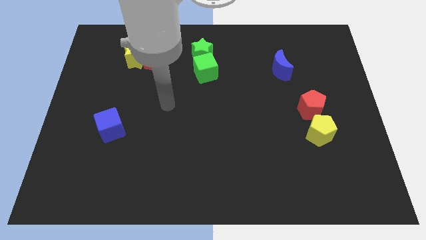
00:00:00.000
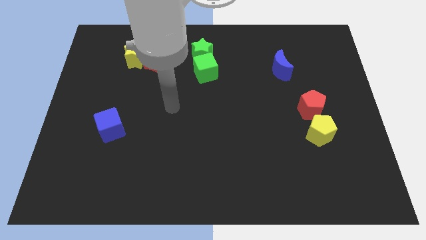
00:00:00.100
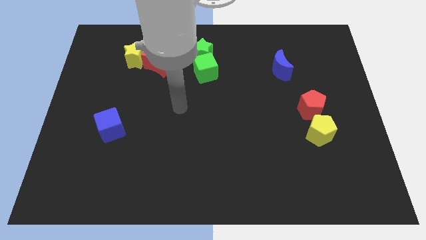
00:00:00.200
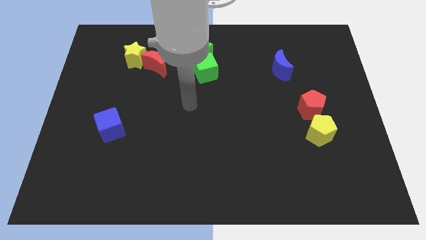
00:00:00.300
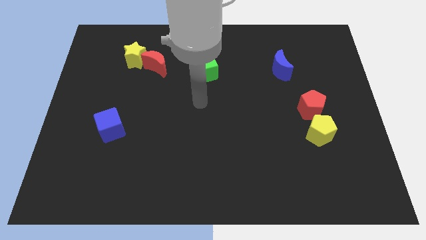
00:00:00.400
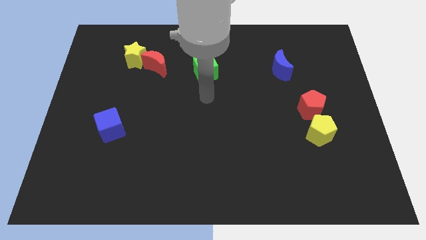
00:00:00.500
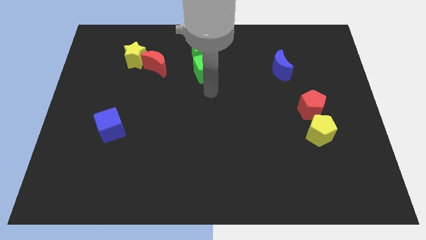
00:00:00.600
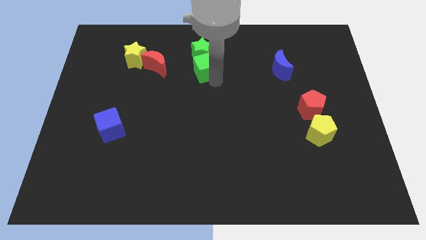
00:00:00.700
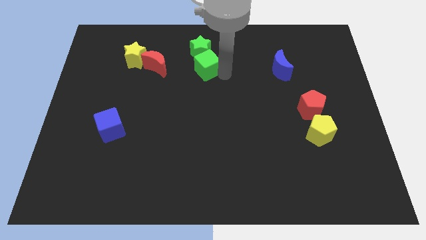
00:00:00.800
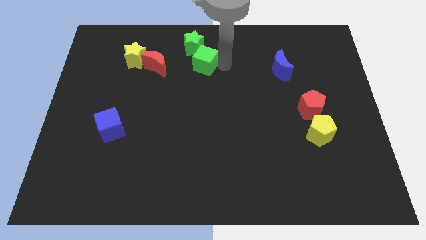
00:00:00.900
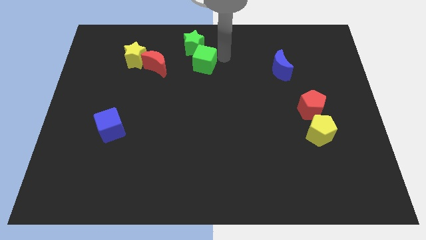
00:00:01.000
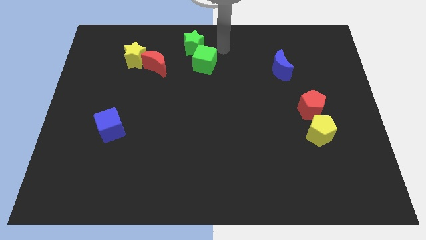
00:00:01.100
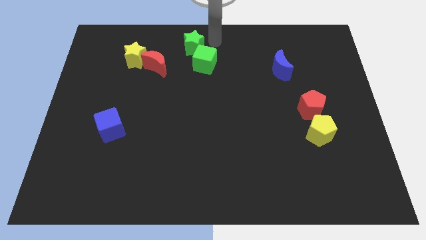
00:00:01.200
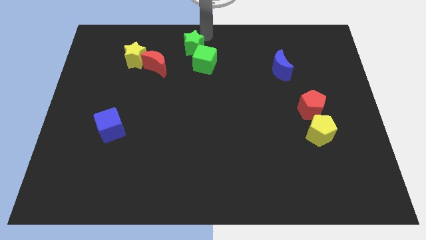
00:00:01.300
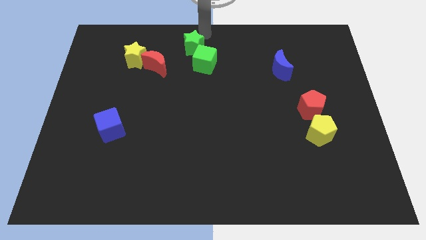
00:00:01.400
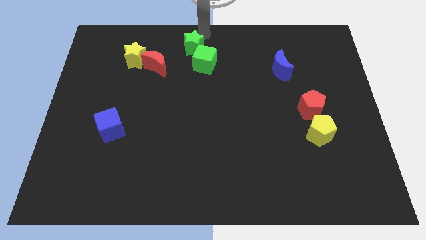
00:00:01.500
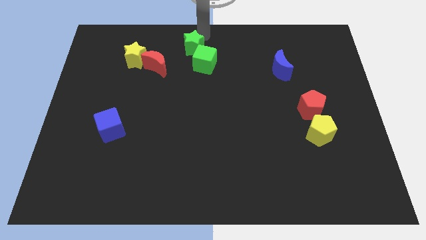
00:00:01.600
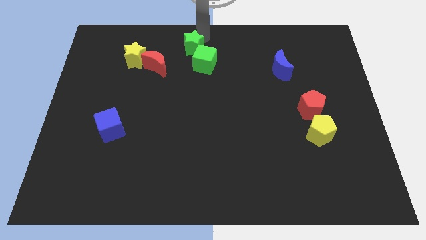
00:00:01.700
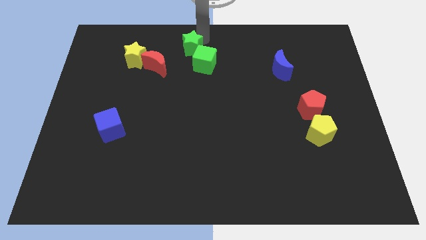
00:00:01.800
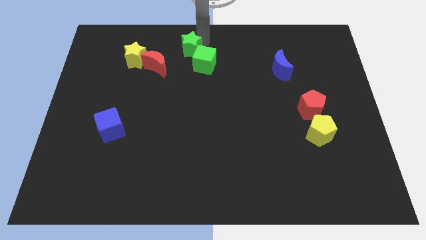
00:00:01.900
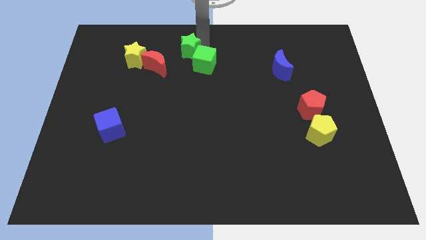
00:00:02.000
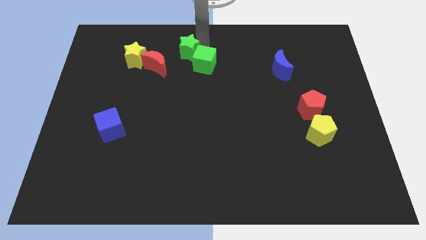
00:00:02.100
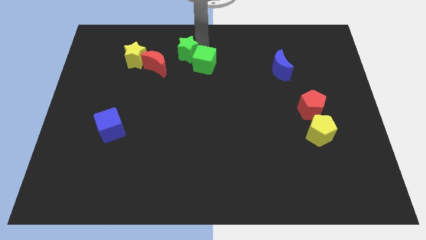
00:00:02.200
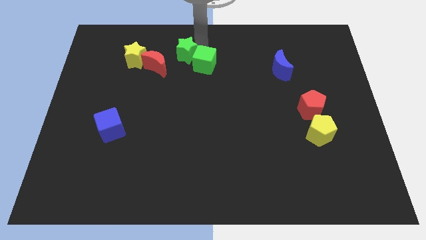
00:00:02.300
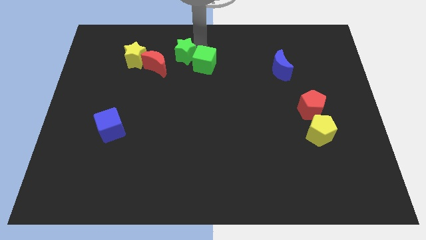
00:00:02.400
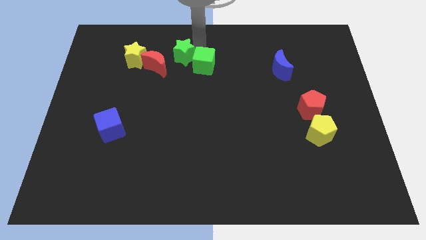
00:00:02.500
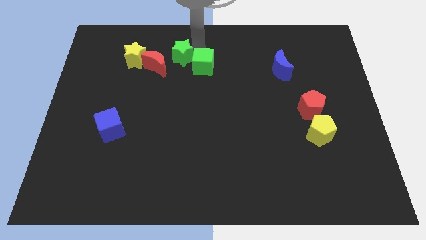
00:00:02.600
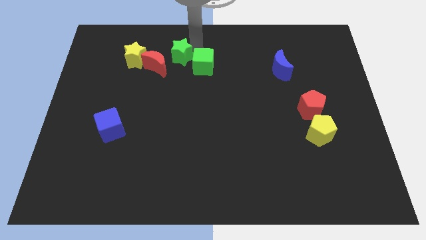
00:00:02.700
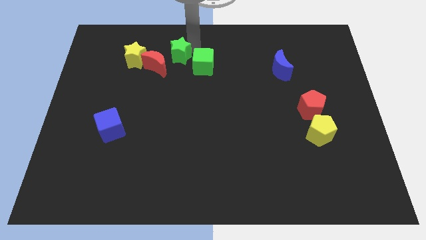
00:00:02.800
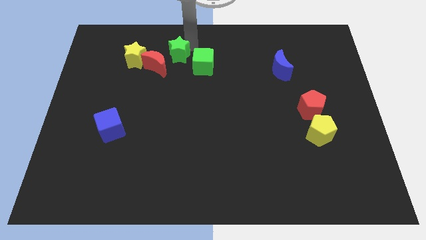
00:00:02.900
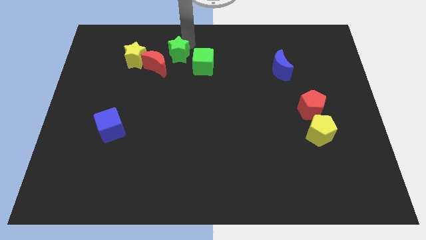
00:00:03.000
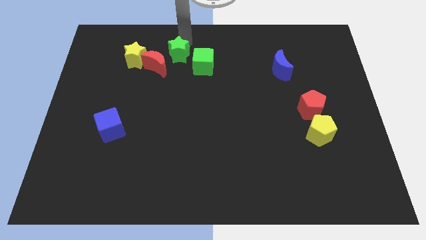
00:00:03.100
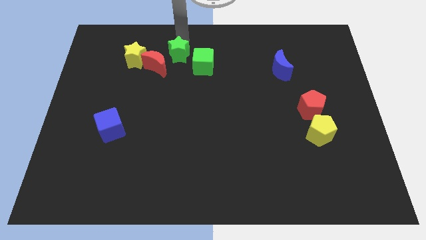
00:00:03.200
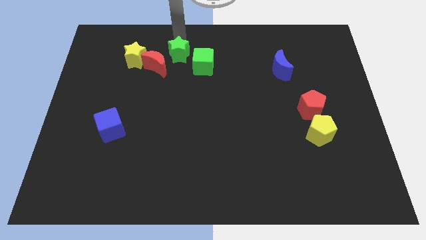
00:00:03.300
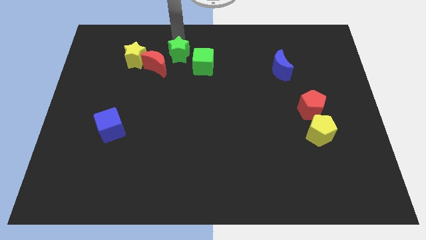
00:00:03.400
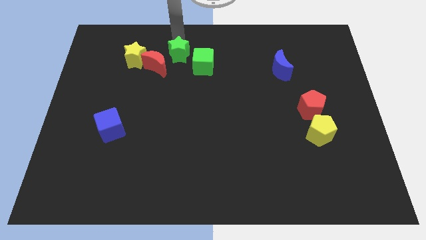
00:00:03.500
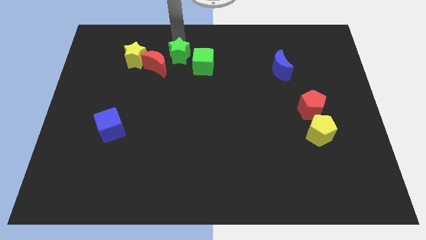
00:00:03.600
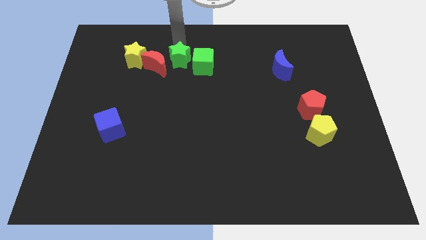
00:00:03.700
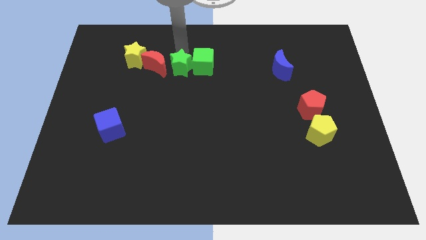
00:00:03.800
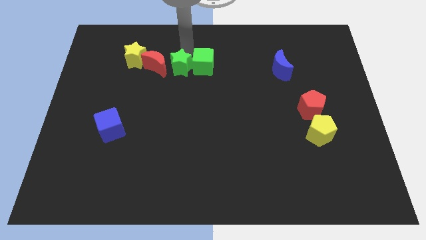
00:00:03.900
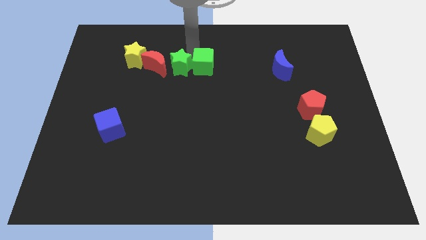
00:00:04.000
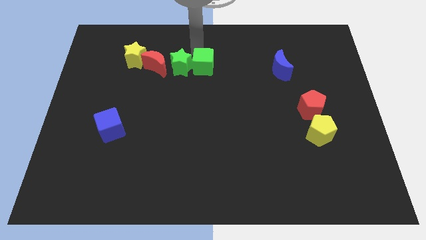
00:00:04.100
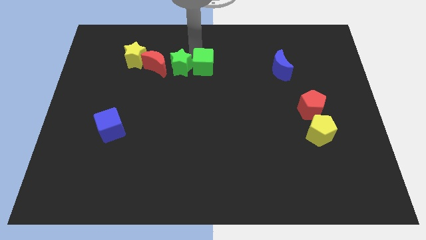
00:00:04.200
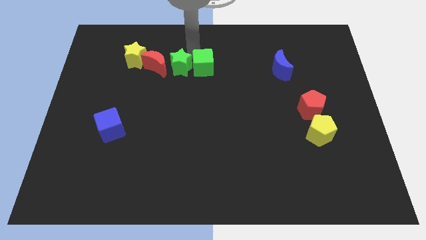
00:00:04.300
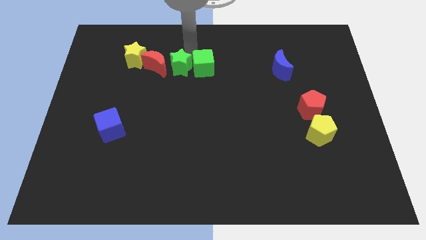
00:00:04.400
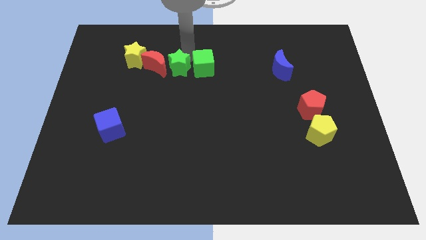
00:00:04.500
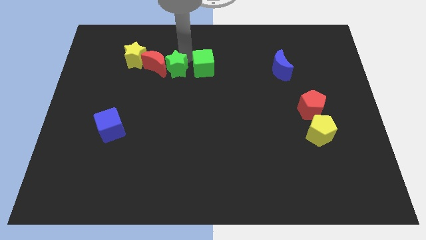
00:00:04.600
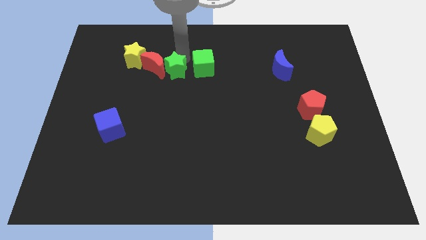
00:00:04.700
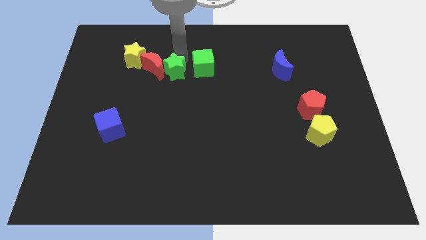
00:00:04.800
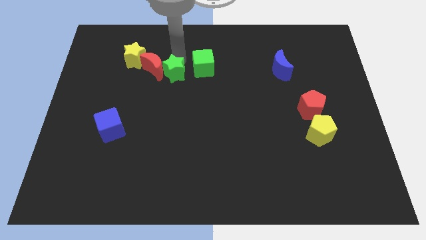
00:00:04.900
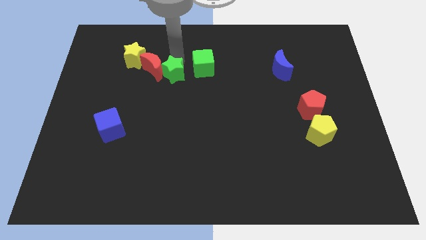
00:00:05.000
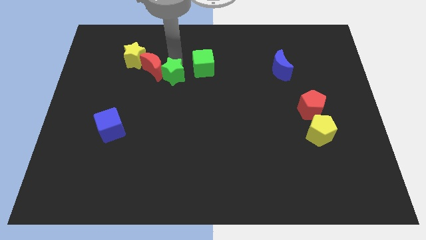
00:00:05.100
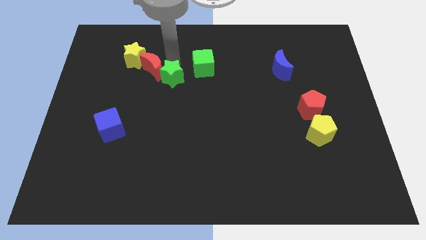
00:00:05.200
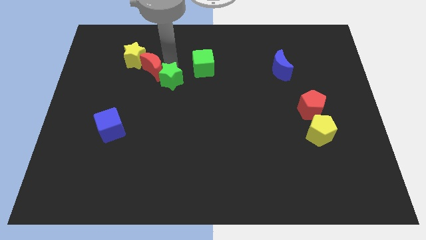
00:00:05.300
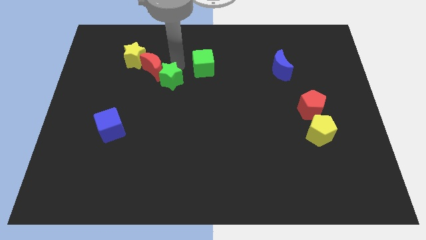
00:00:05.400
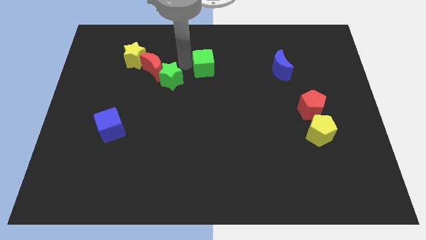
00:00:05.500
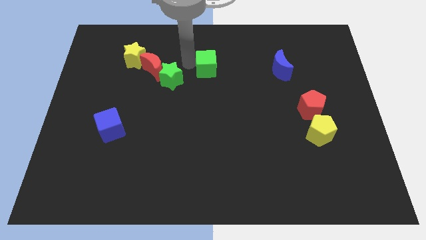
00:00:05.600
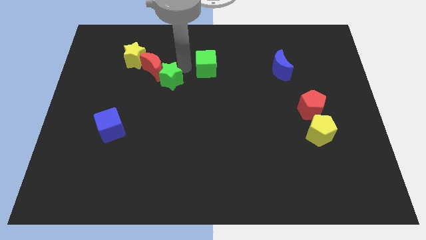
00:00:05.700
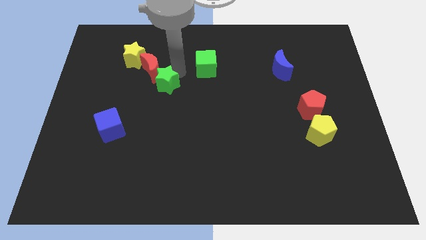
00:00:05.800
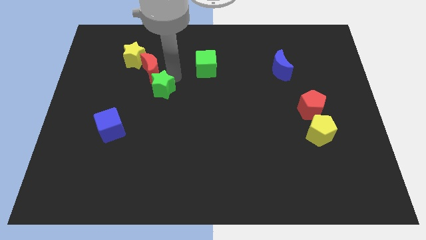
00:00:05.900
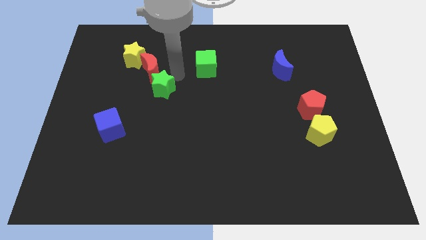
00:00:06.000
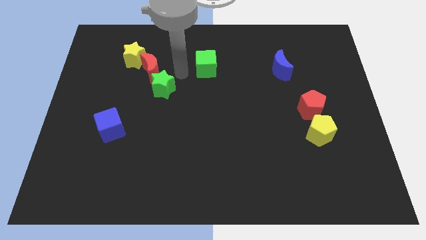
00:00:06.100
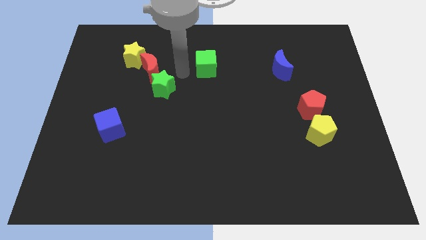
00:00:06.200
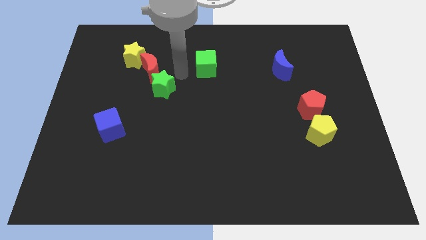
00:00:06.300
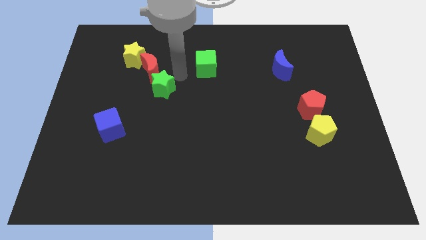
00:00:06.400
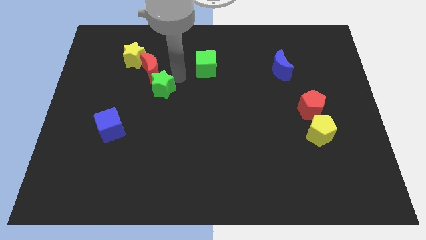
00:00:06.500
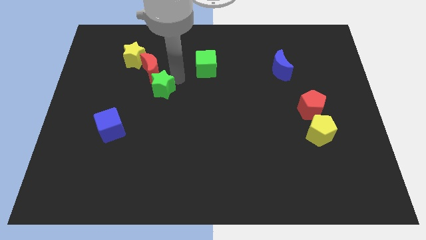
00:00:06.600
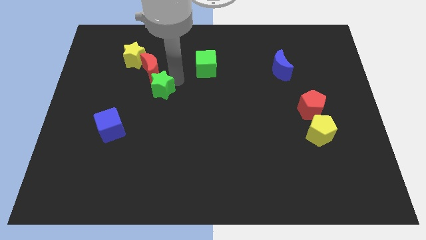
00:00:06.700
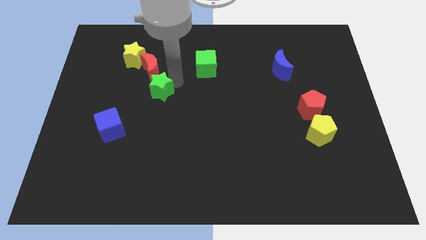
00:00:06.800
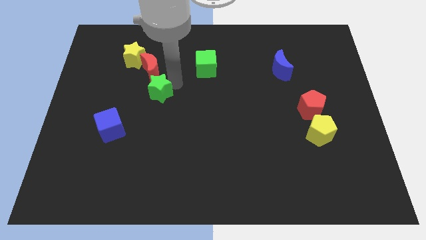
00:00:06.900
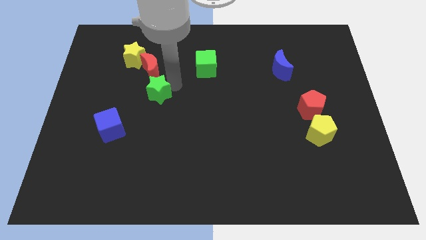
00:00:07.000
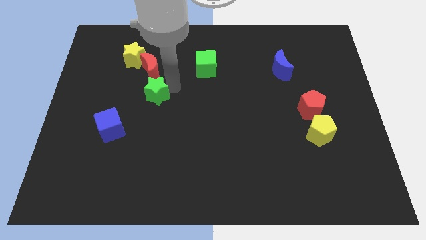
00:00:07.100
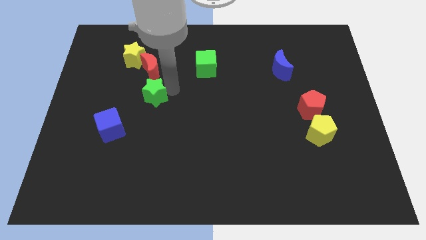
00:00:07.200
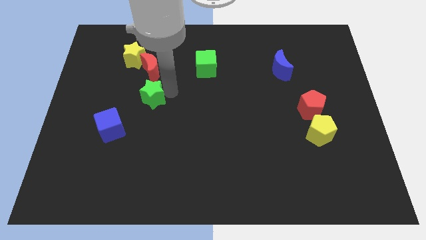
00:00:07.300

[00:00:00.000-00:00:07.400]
slide the green star to the top right of the blue cube
